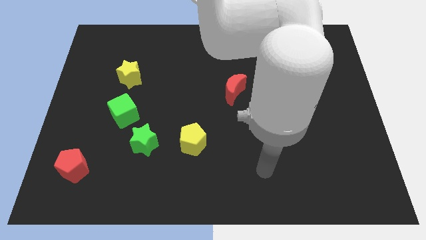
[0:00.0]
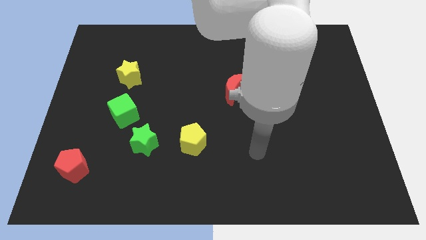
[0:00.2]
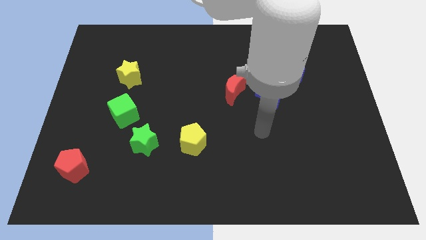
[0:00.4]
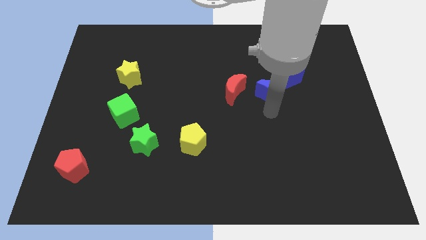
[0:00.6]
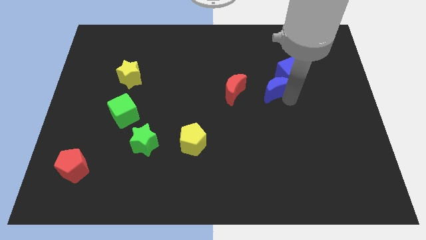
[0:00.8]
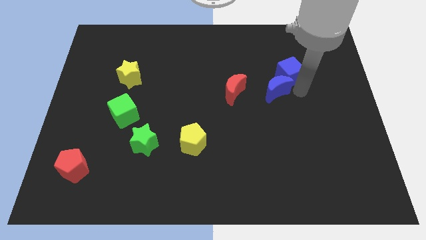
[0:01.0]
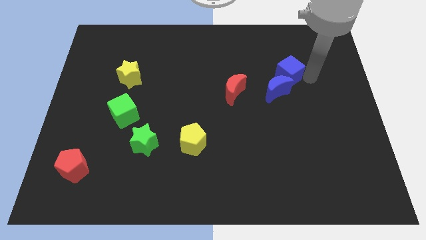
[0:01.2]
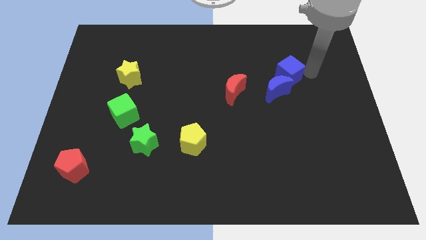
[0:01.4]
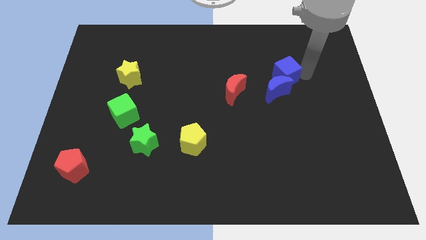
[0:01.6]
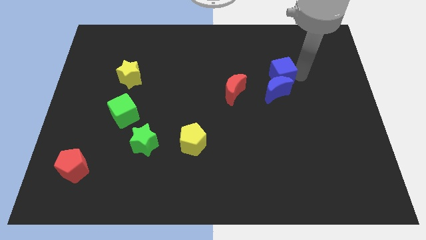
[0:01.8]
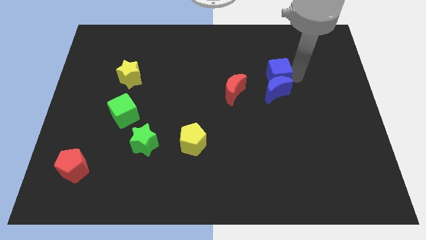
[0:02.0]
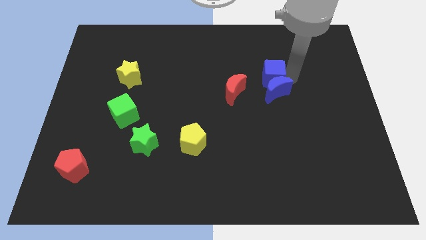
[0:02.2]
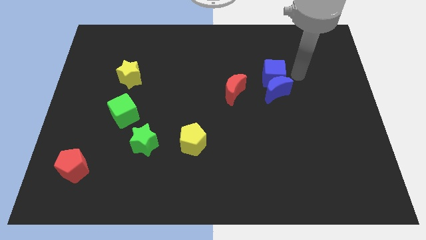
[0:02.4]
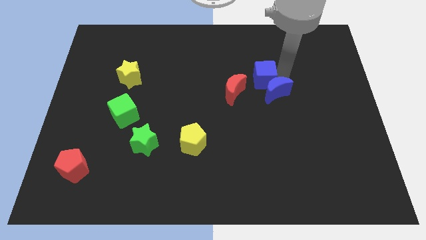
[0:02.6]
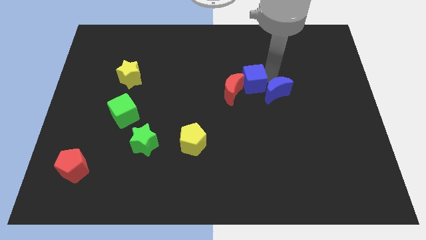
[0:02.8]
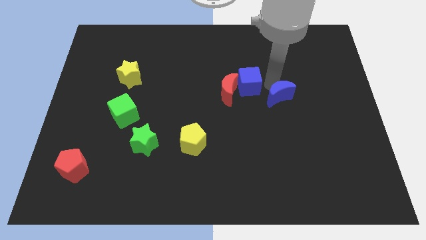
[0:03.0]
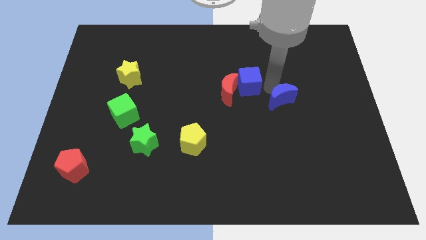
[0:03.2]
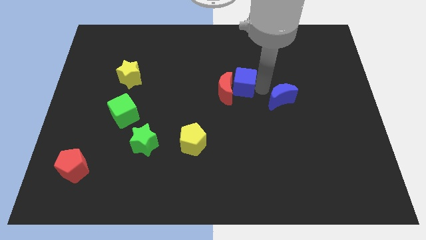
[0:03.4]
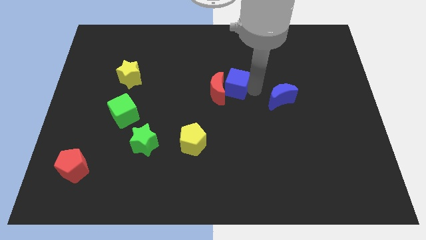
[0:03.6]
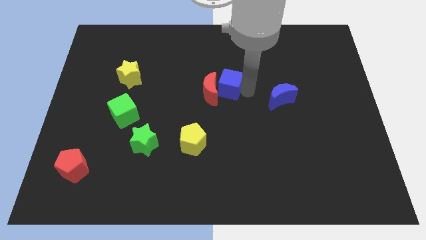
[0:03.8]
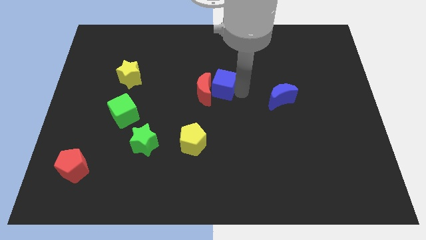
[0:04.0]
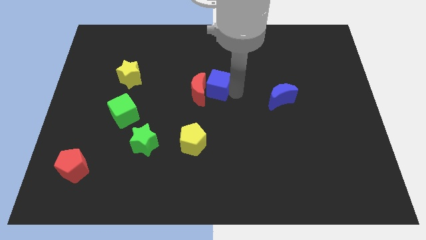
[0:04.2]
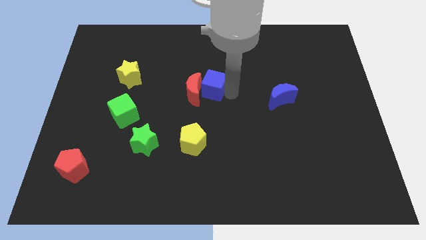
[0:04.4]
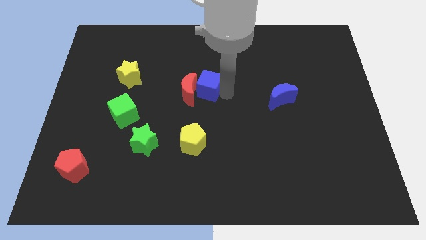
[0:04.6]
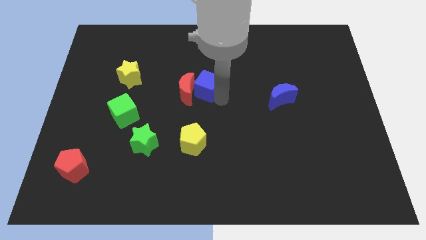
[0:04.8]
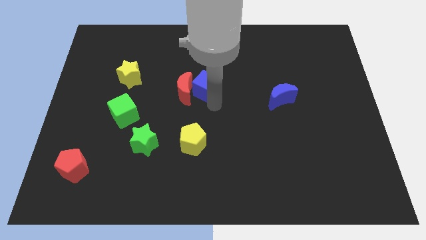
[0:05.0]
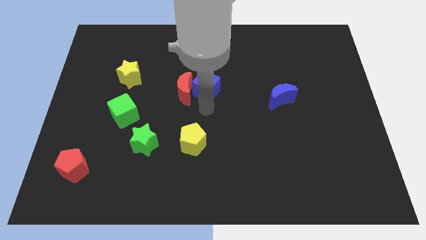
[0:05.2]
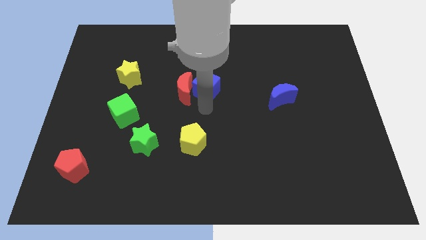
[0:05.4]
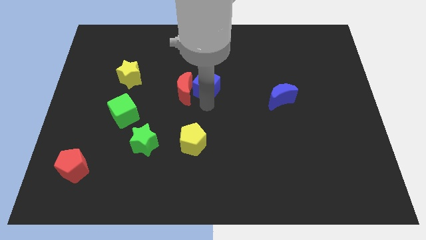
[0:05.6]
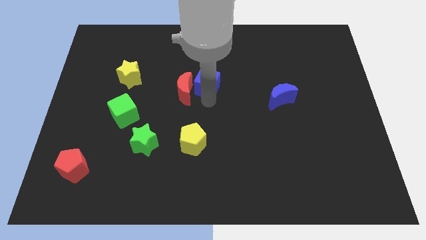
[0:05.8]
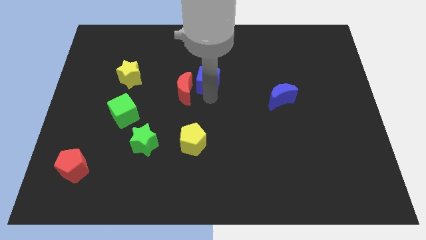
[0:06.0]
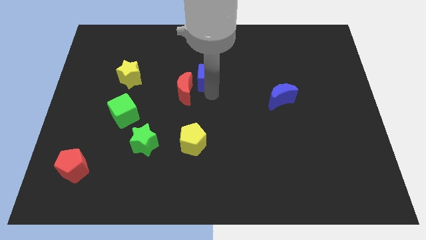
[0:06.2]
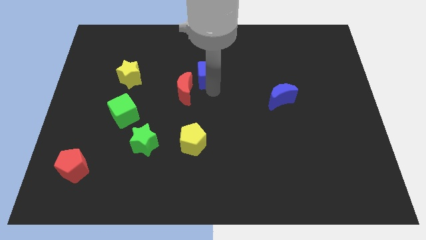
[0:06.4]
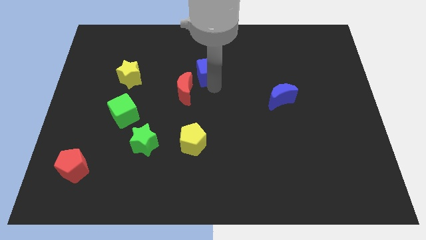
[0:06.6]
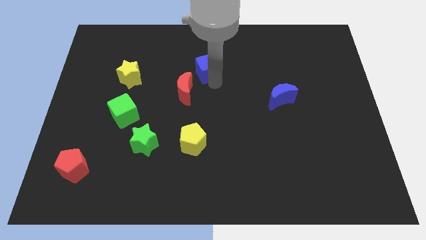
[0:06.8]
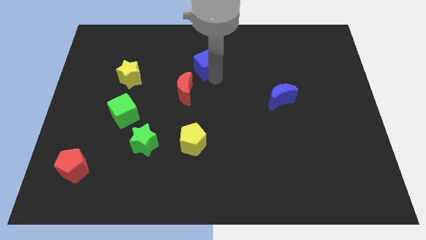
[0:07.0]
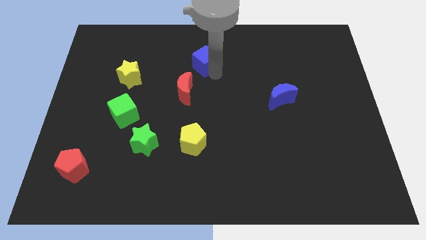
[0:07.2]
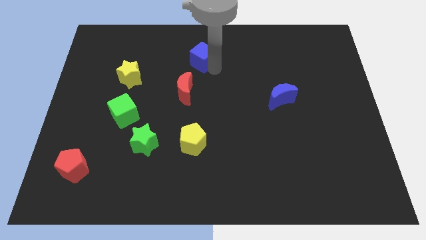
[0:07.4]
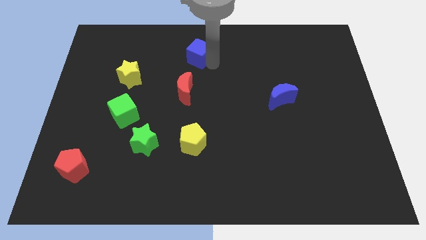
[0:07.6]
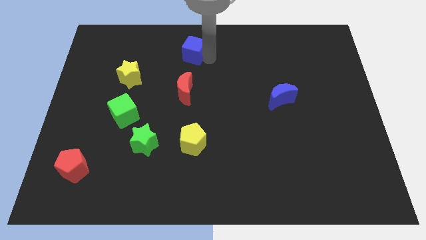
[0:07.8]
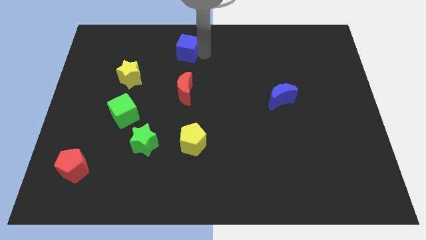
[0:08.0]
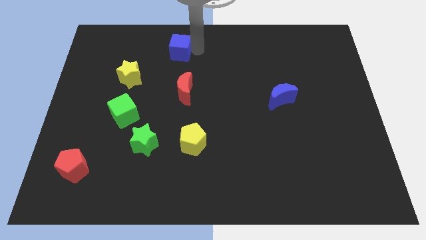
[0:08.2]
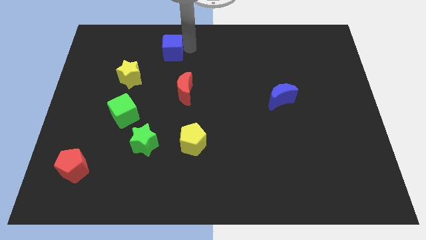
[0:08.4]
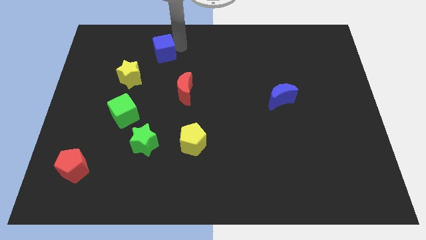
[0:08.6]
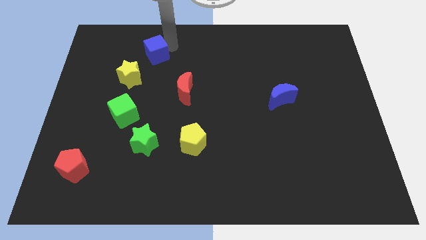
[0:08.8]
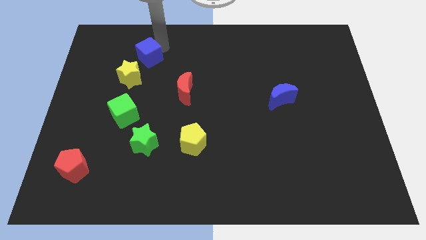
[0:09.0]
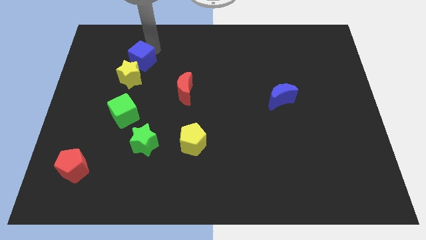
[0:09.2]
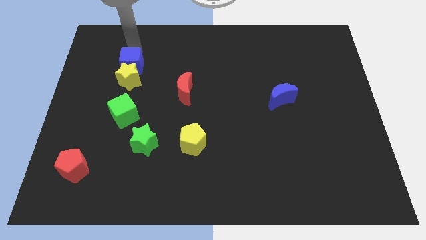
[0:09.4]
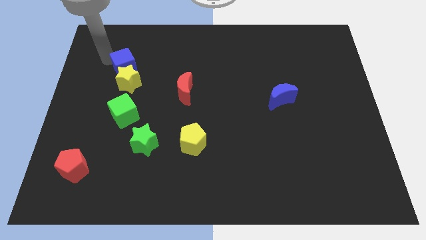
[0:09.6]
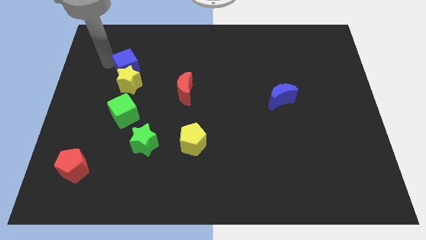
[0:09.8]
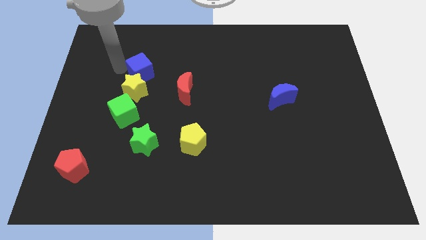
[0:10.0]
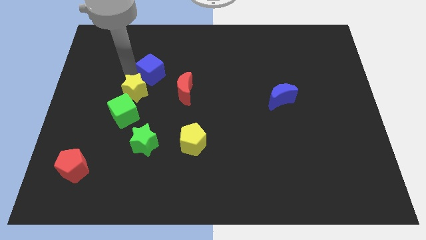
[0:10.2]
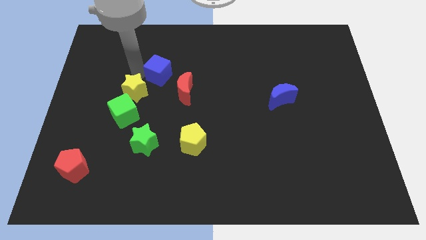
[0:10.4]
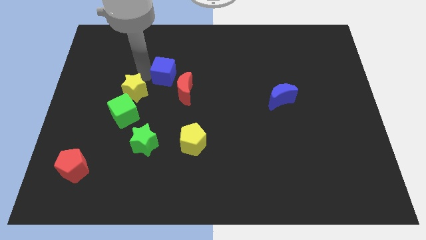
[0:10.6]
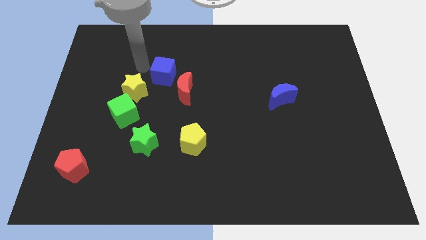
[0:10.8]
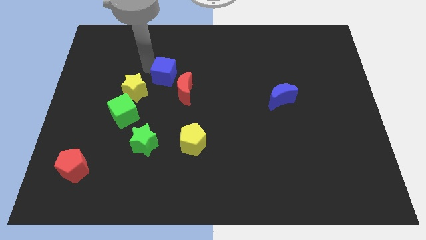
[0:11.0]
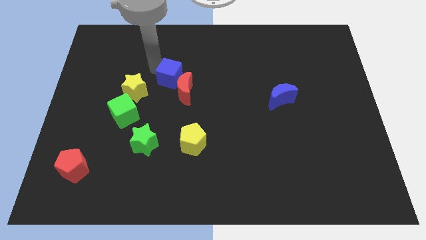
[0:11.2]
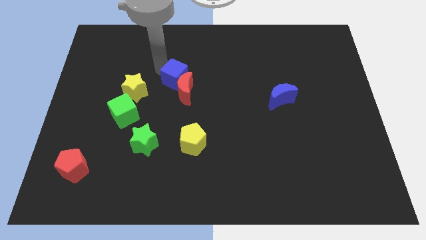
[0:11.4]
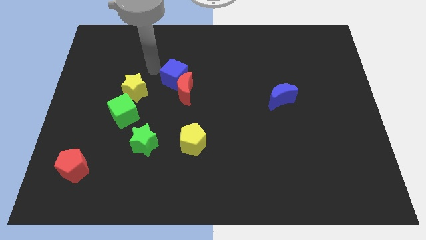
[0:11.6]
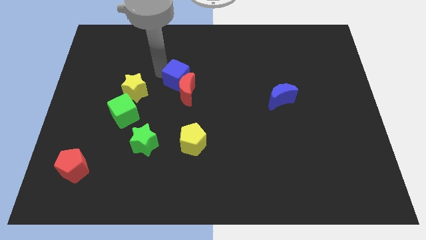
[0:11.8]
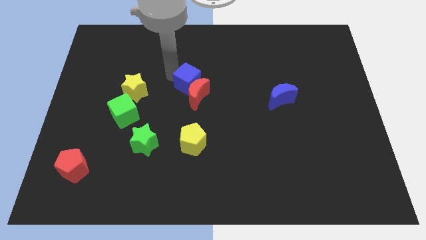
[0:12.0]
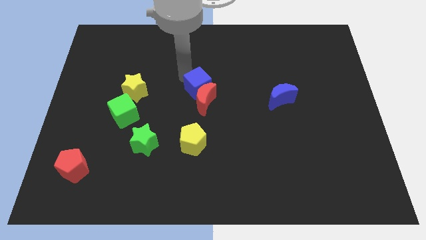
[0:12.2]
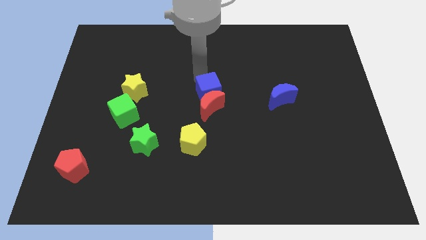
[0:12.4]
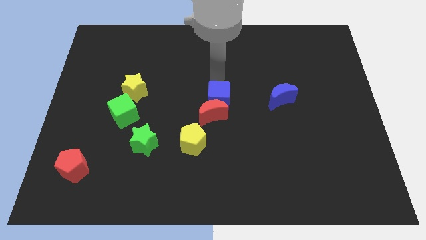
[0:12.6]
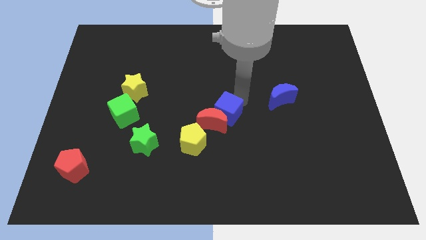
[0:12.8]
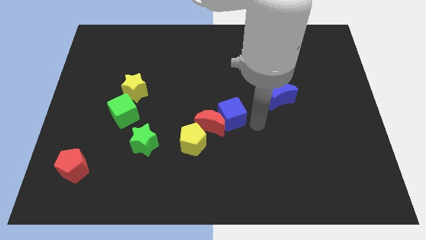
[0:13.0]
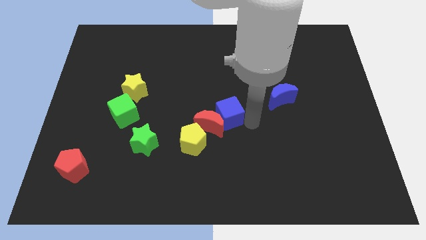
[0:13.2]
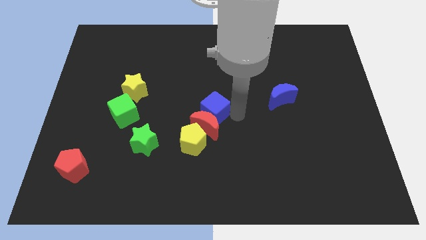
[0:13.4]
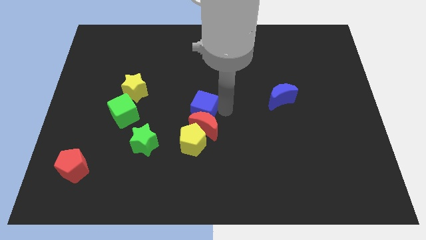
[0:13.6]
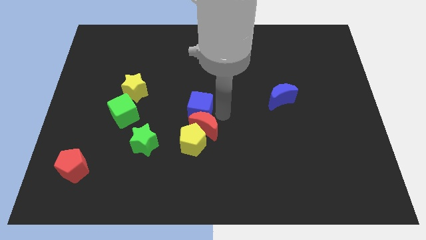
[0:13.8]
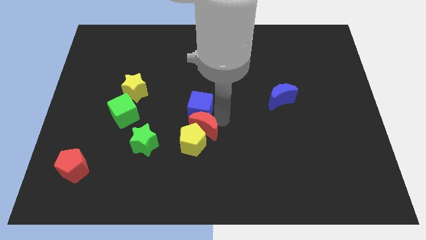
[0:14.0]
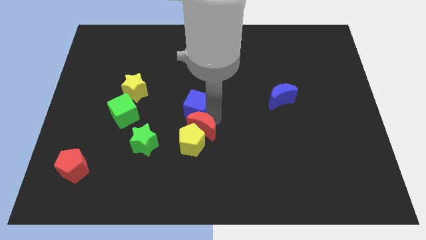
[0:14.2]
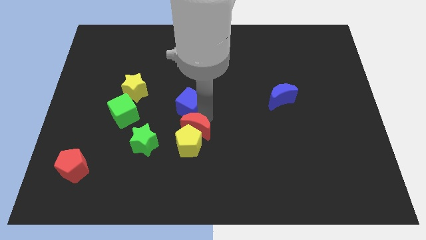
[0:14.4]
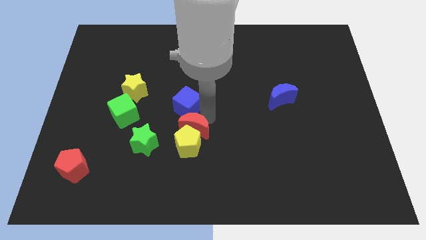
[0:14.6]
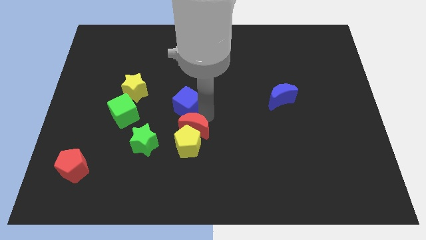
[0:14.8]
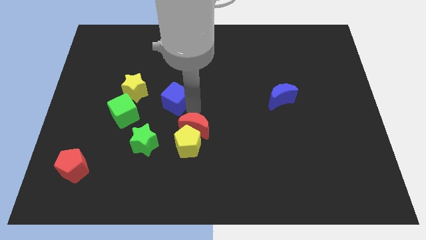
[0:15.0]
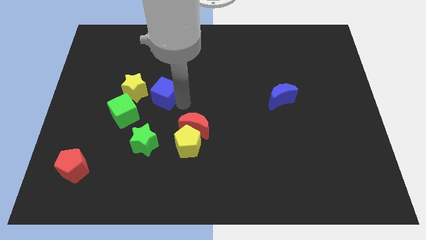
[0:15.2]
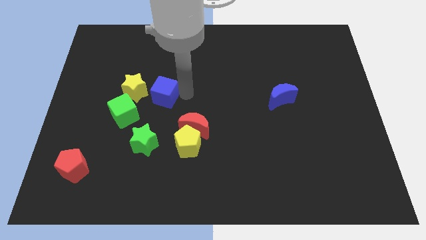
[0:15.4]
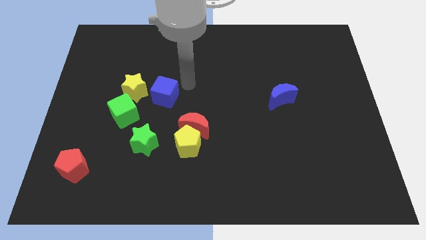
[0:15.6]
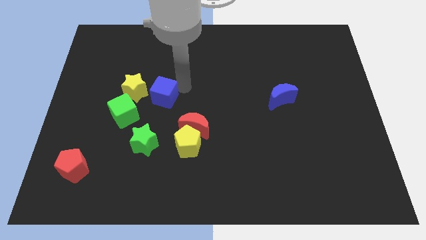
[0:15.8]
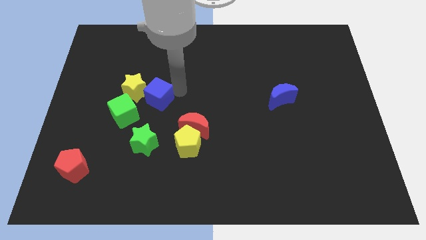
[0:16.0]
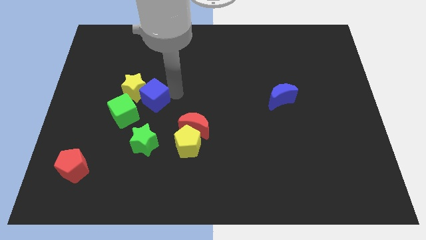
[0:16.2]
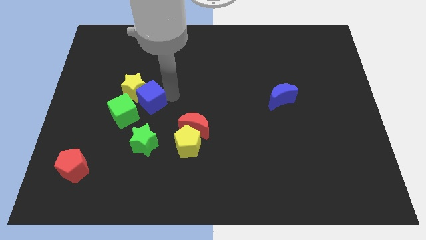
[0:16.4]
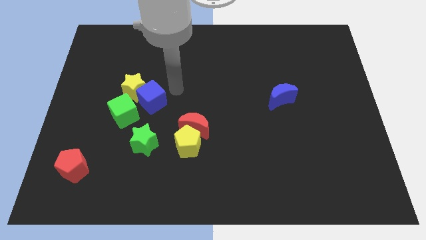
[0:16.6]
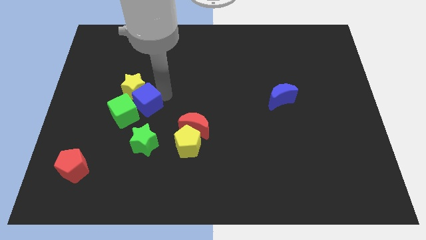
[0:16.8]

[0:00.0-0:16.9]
slide the blue cube close to the green cube
